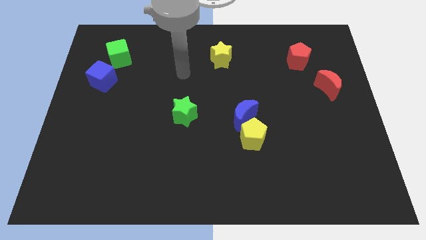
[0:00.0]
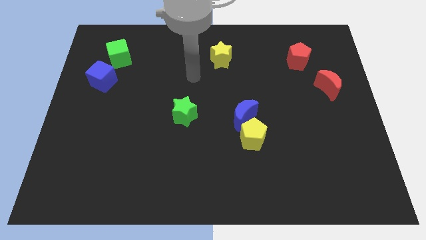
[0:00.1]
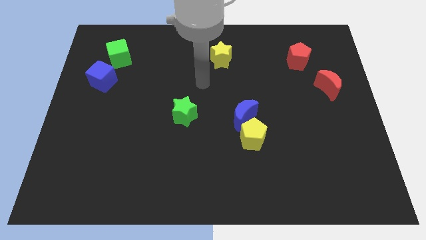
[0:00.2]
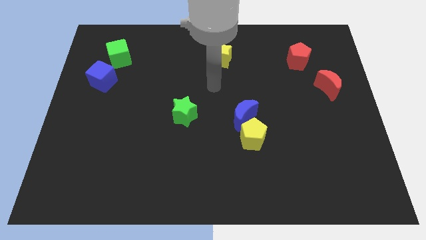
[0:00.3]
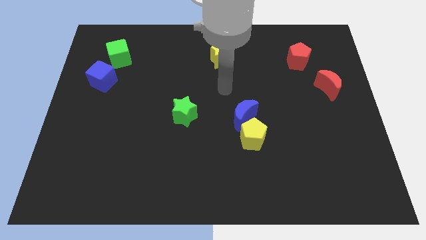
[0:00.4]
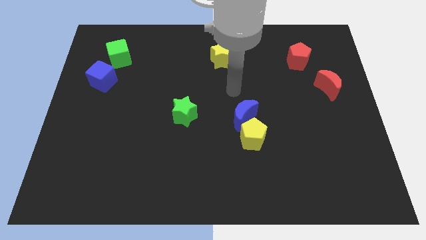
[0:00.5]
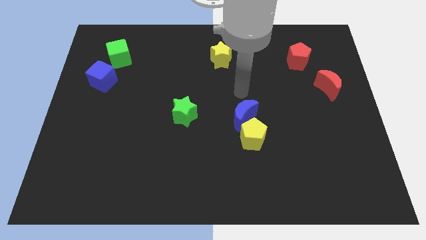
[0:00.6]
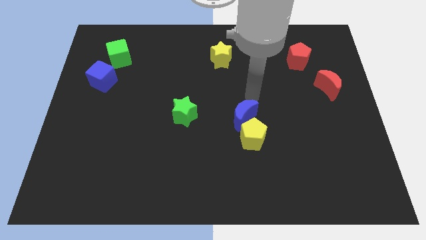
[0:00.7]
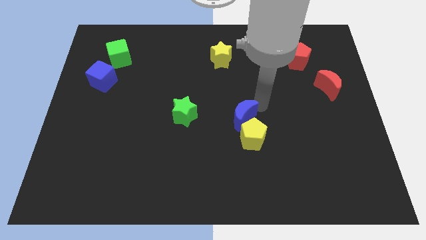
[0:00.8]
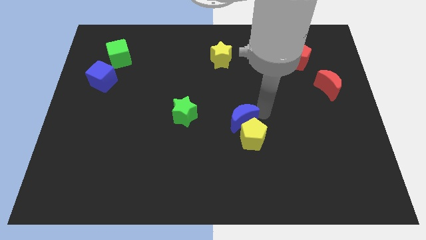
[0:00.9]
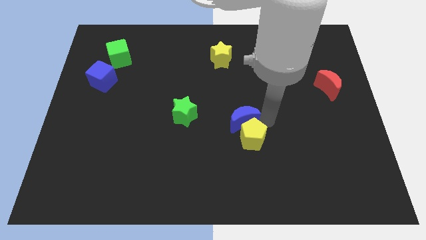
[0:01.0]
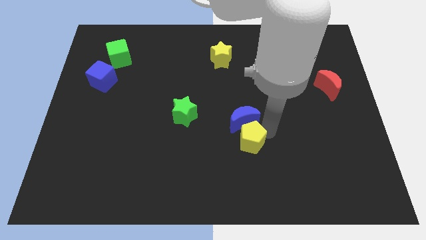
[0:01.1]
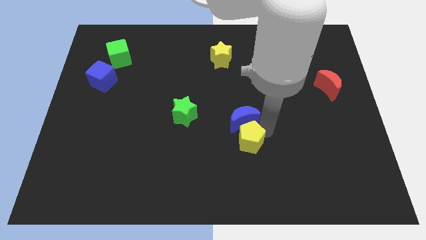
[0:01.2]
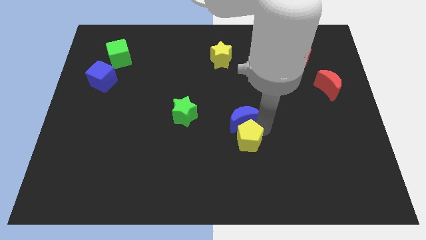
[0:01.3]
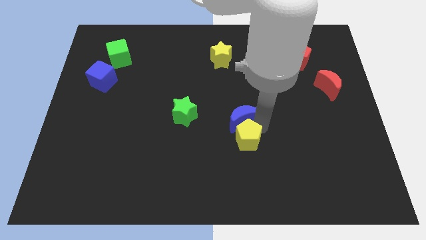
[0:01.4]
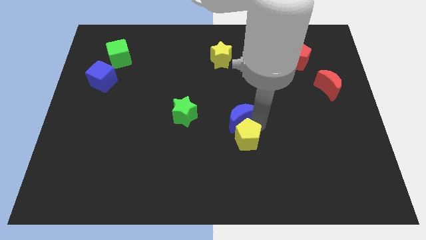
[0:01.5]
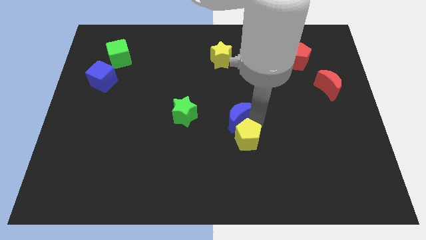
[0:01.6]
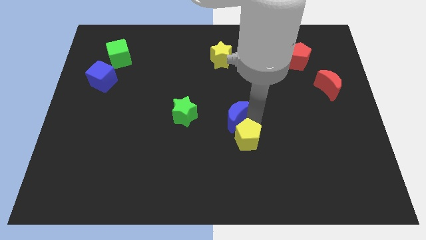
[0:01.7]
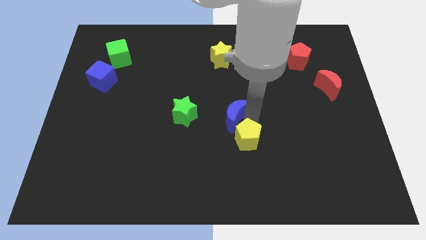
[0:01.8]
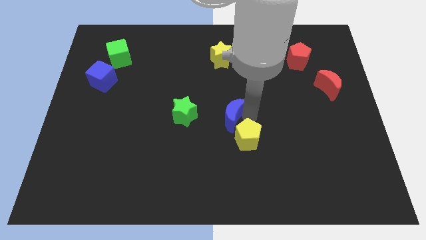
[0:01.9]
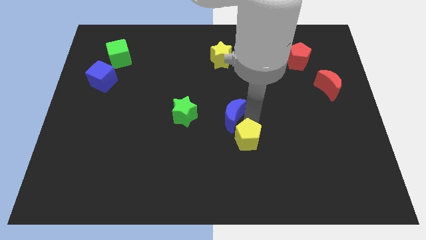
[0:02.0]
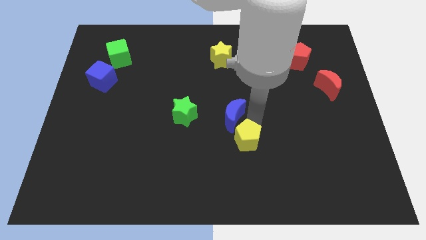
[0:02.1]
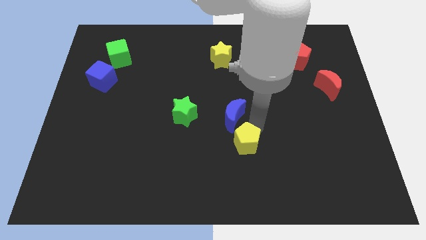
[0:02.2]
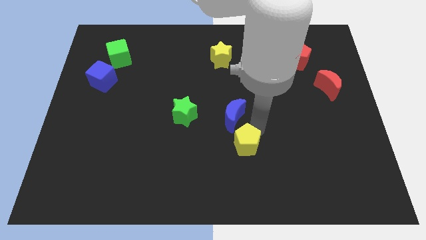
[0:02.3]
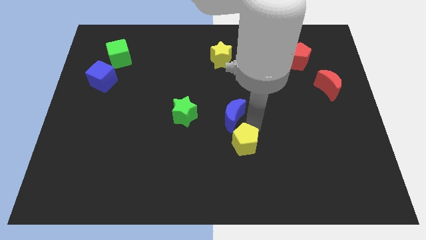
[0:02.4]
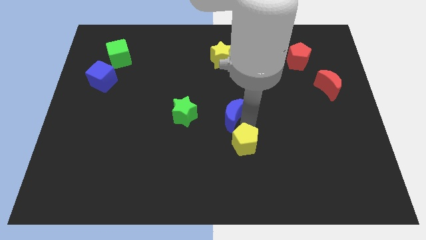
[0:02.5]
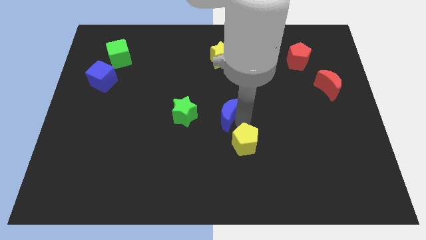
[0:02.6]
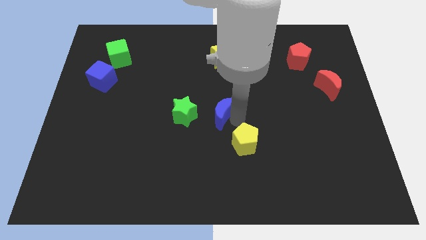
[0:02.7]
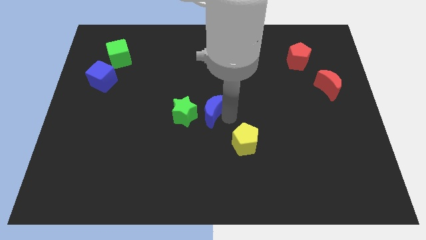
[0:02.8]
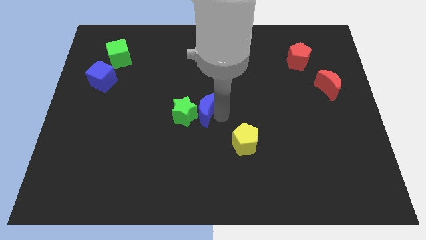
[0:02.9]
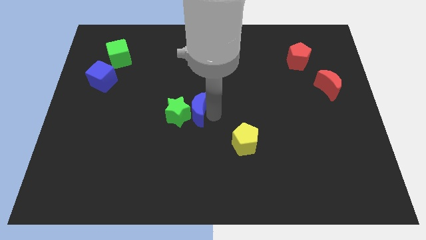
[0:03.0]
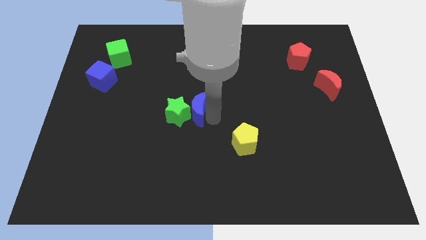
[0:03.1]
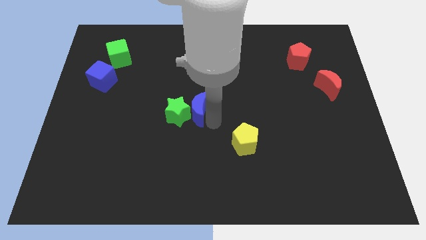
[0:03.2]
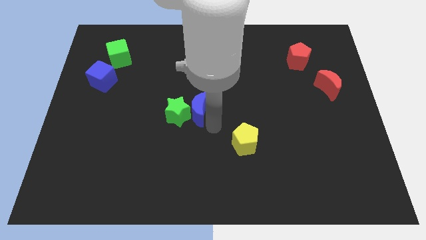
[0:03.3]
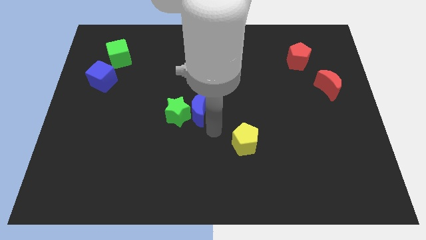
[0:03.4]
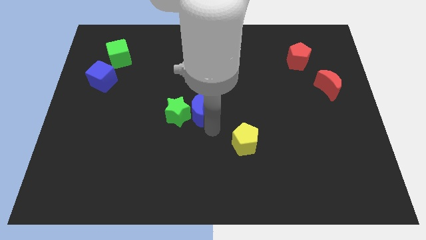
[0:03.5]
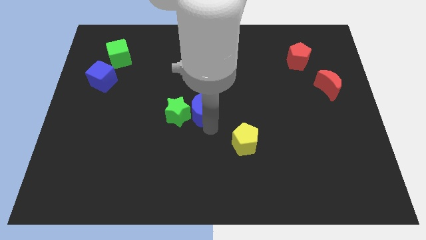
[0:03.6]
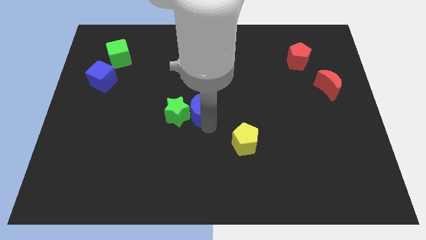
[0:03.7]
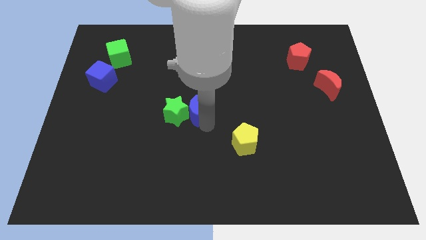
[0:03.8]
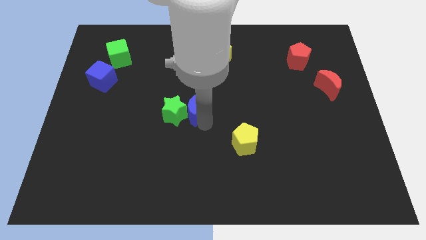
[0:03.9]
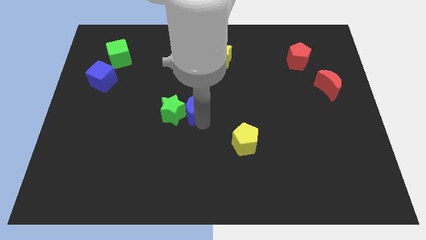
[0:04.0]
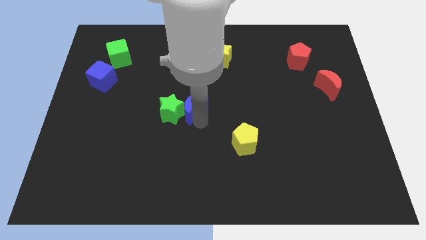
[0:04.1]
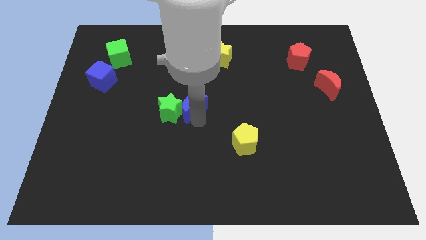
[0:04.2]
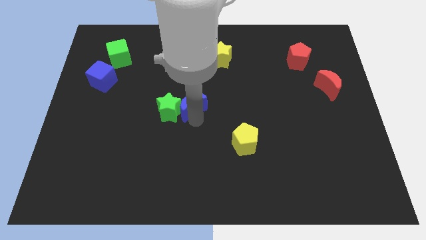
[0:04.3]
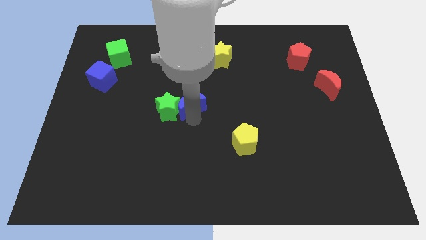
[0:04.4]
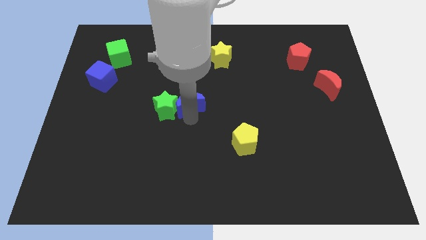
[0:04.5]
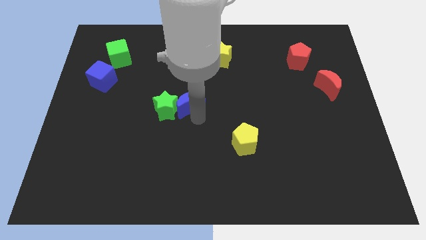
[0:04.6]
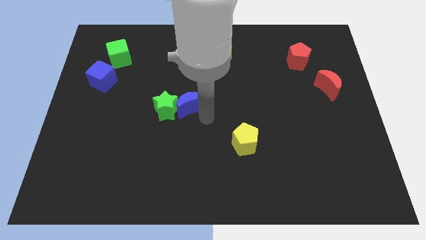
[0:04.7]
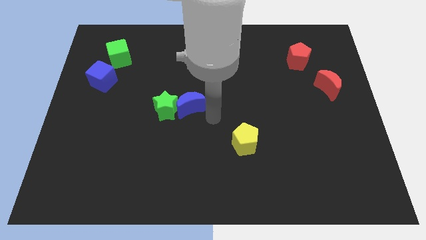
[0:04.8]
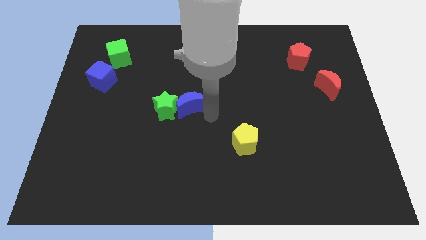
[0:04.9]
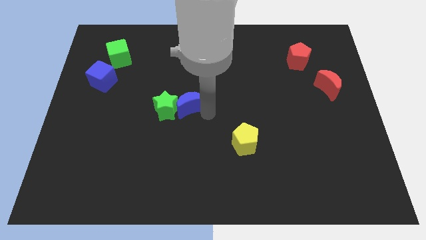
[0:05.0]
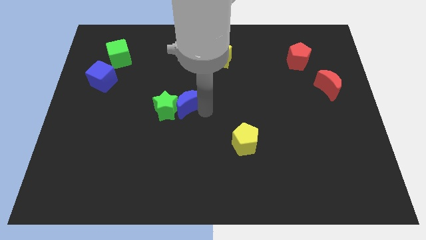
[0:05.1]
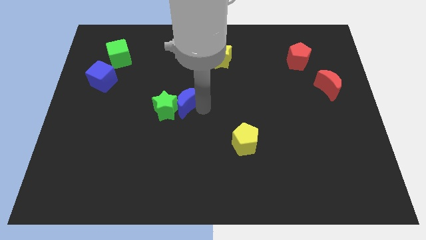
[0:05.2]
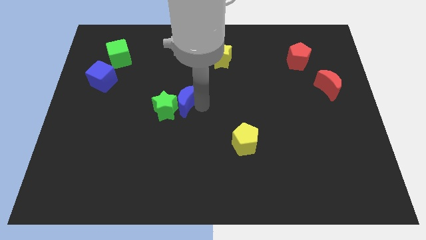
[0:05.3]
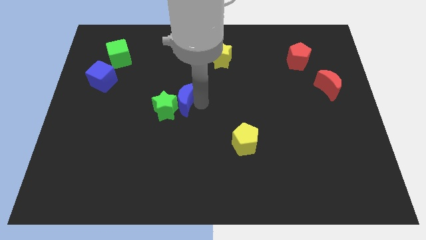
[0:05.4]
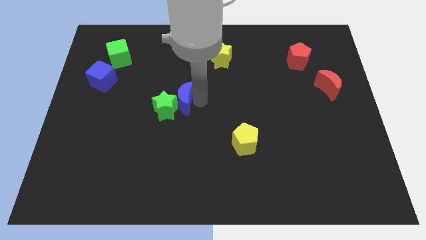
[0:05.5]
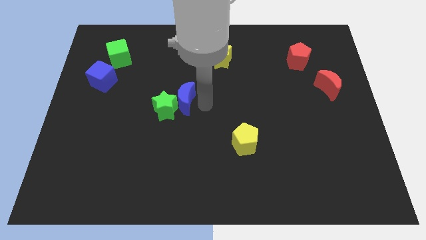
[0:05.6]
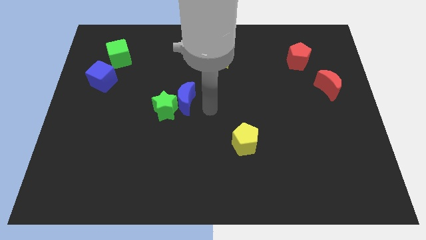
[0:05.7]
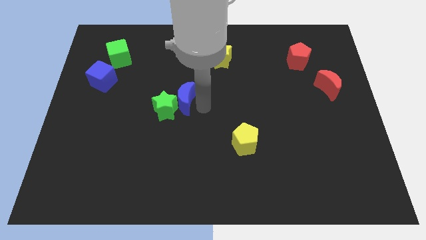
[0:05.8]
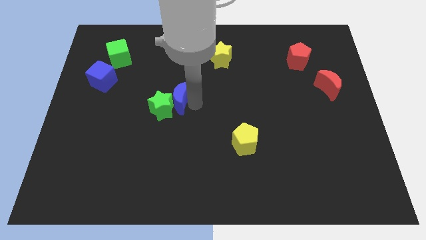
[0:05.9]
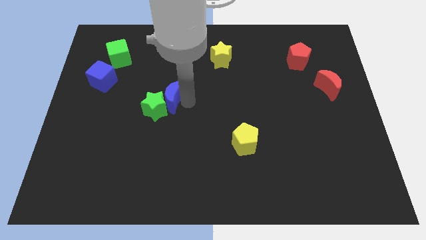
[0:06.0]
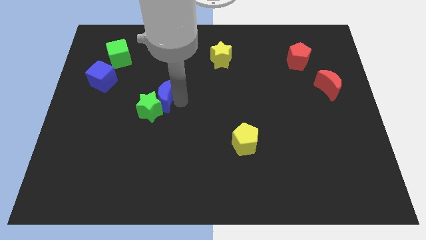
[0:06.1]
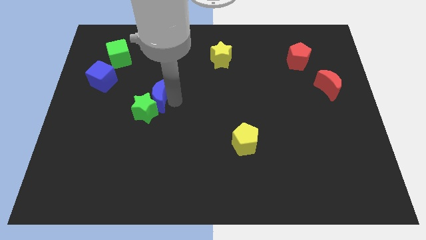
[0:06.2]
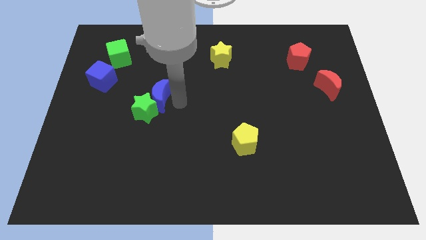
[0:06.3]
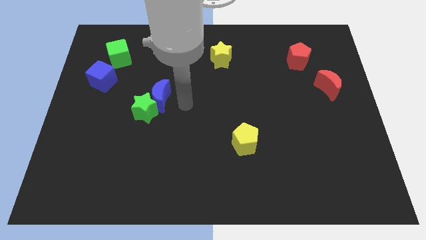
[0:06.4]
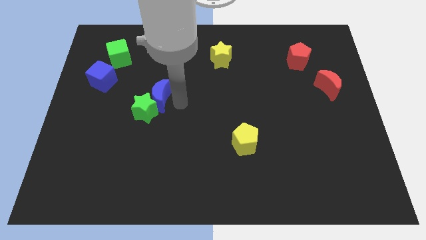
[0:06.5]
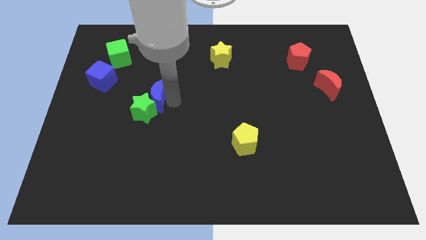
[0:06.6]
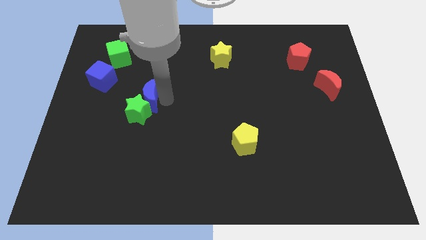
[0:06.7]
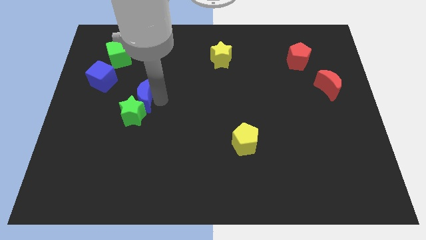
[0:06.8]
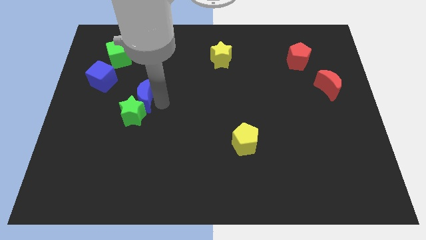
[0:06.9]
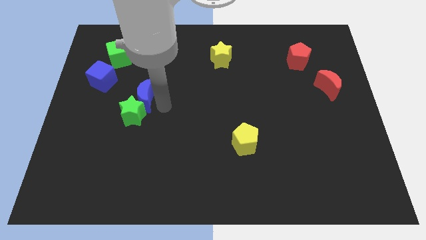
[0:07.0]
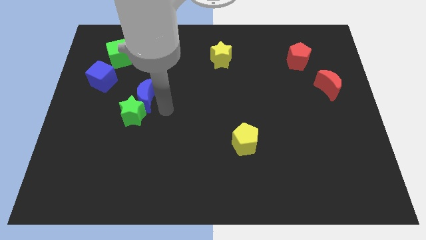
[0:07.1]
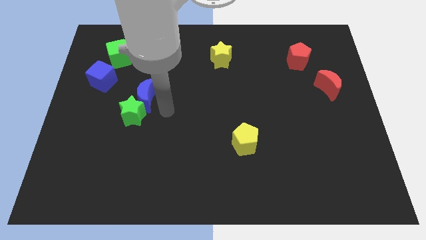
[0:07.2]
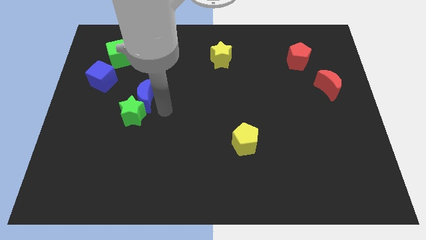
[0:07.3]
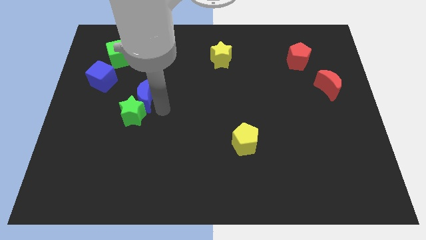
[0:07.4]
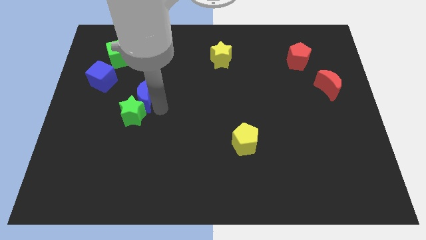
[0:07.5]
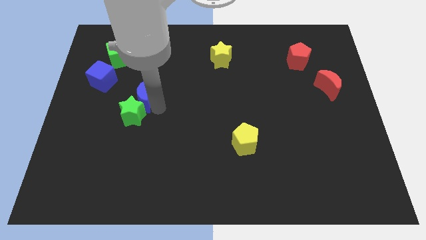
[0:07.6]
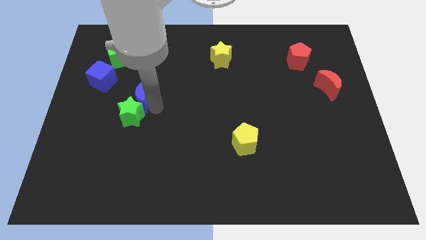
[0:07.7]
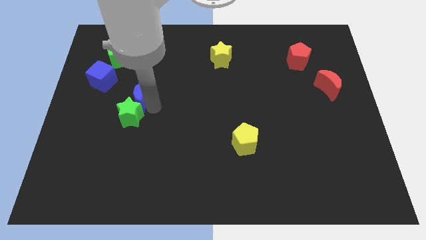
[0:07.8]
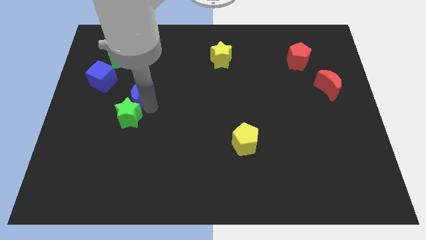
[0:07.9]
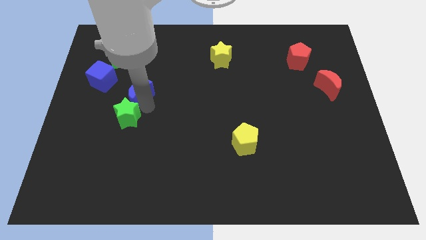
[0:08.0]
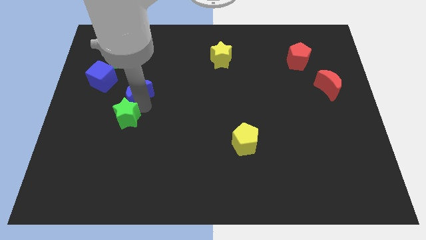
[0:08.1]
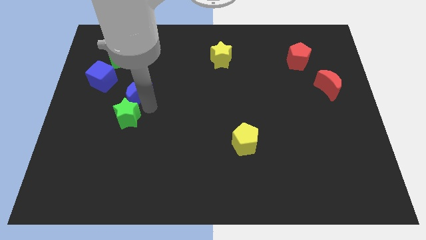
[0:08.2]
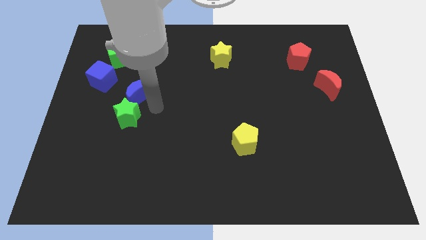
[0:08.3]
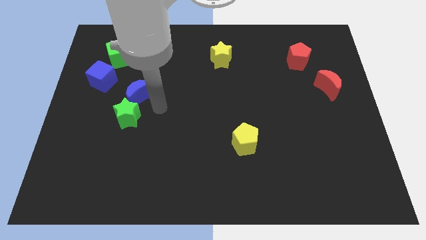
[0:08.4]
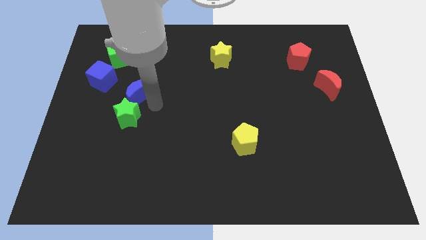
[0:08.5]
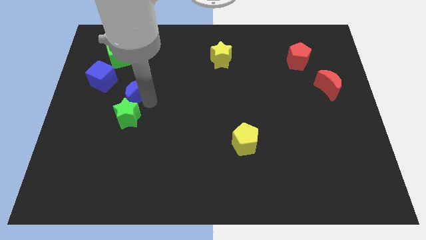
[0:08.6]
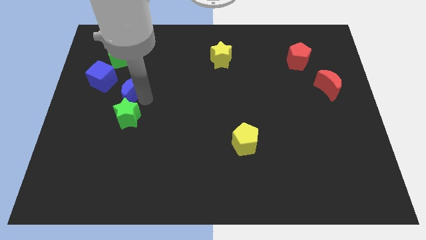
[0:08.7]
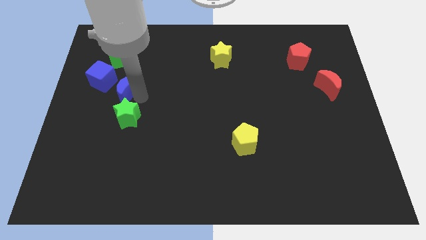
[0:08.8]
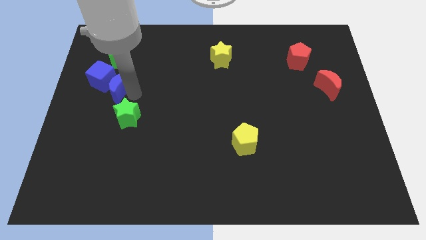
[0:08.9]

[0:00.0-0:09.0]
put the blue moon next to the blue cube
